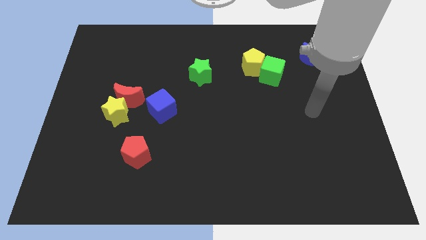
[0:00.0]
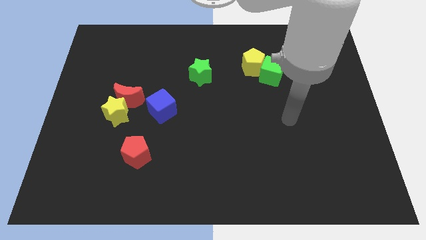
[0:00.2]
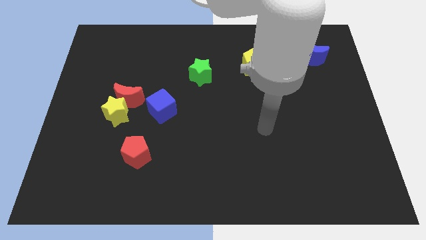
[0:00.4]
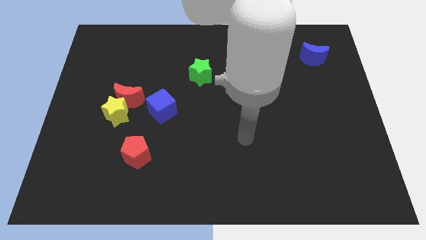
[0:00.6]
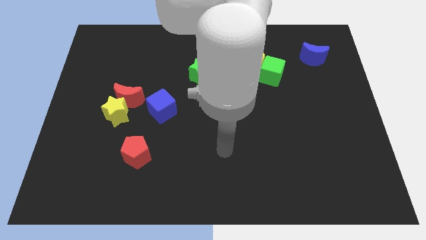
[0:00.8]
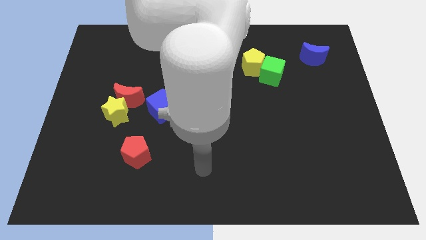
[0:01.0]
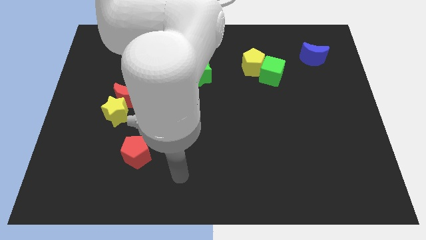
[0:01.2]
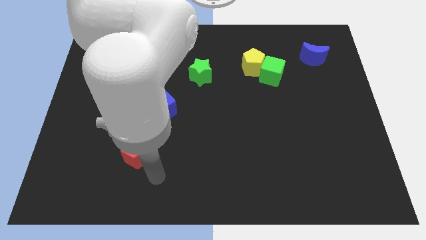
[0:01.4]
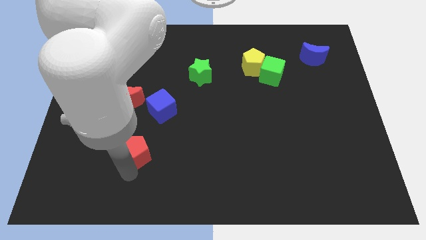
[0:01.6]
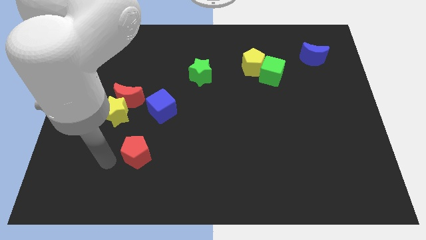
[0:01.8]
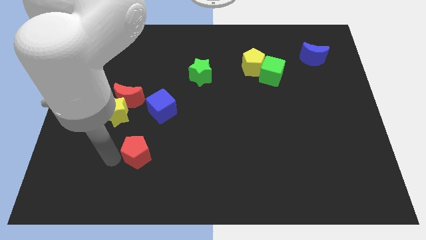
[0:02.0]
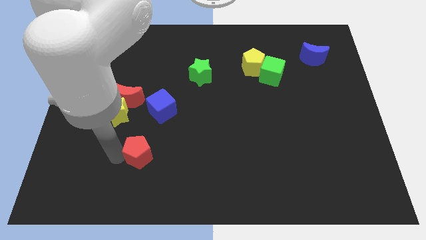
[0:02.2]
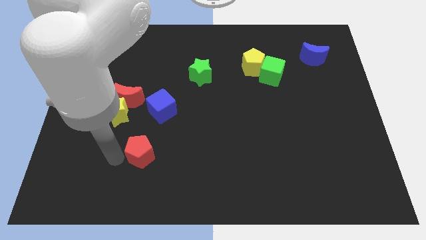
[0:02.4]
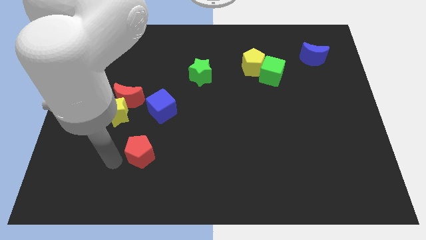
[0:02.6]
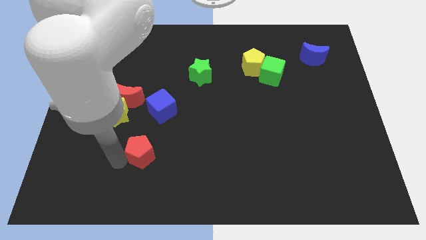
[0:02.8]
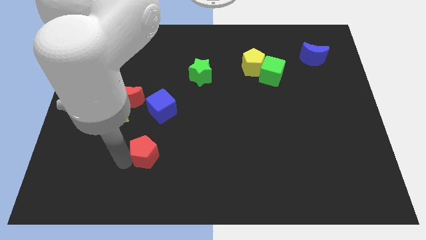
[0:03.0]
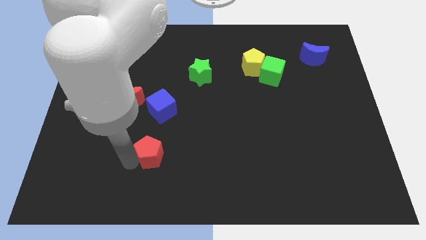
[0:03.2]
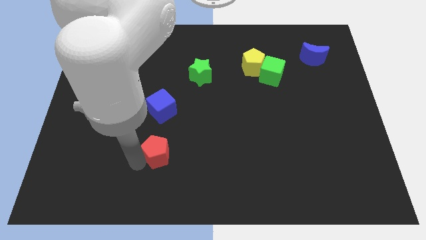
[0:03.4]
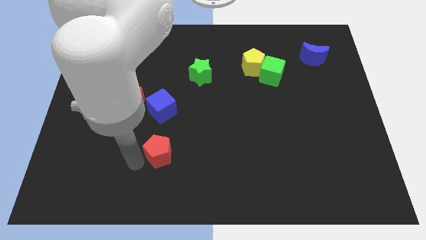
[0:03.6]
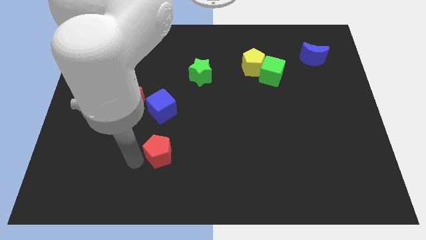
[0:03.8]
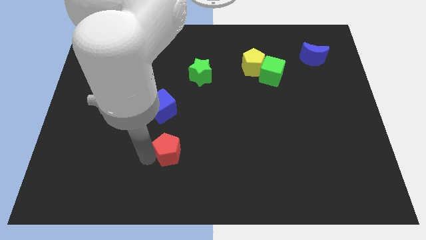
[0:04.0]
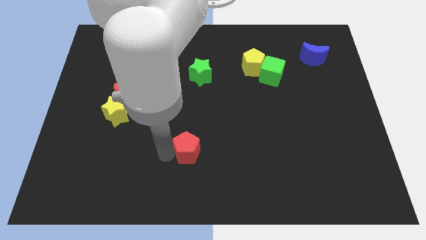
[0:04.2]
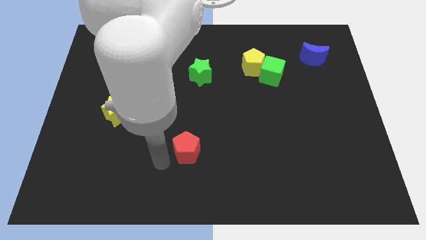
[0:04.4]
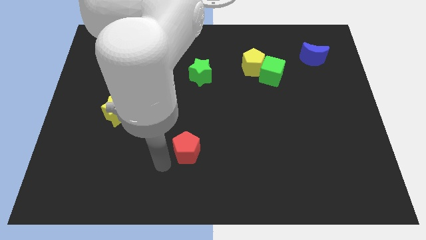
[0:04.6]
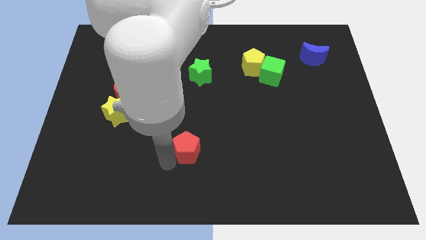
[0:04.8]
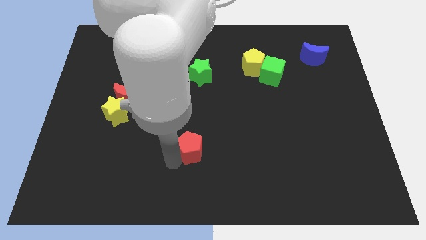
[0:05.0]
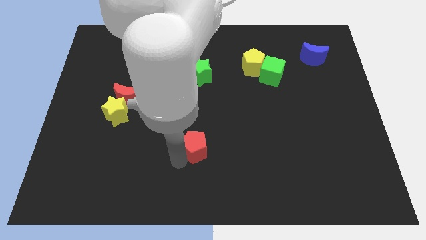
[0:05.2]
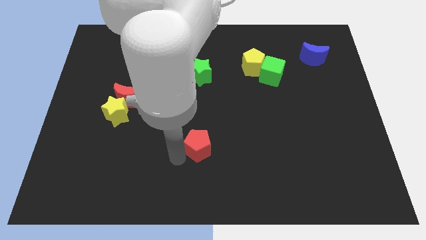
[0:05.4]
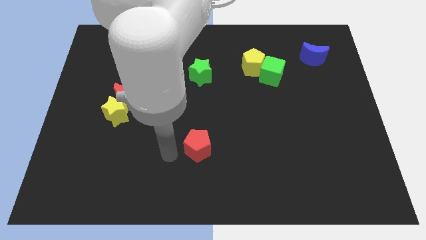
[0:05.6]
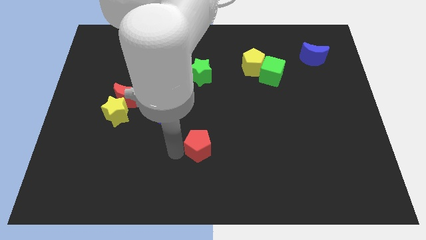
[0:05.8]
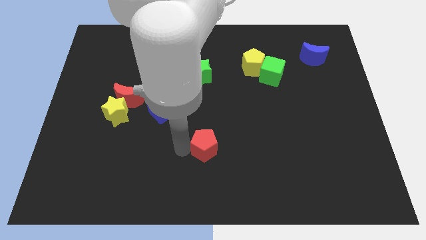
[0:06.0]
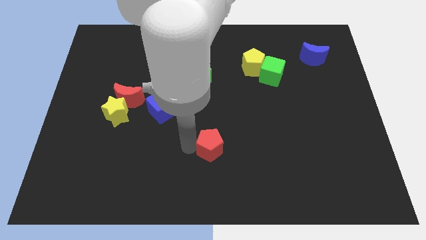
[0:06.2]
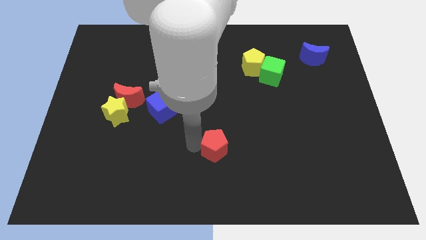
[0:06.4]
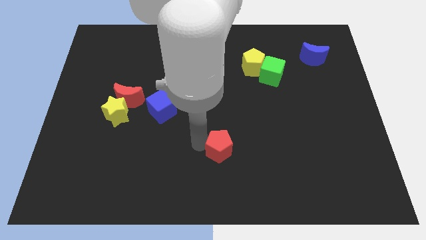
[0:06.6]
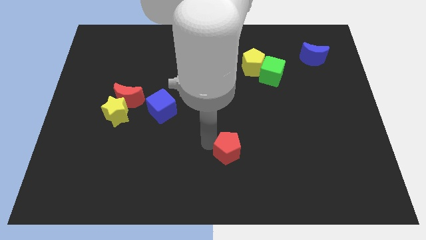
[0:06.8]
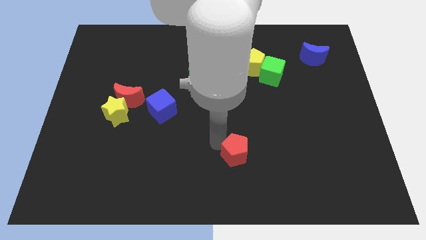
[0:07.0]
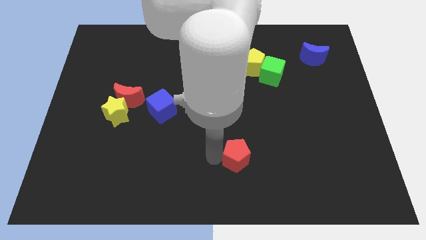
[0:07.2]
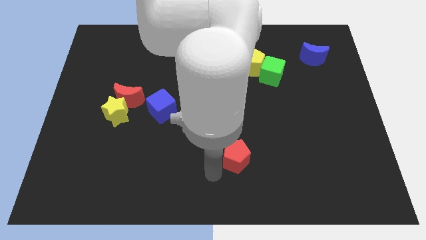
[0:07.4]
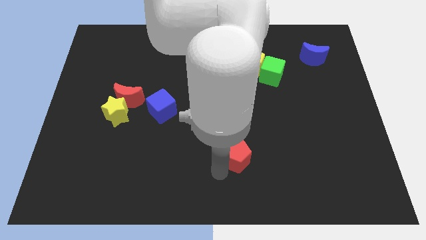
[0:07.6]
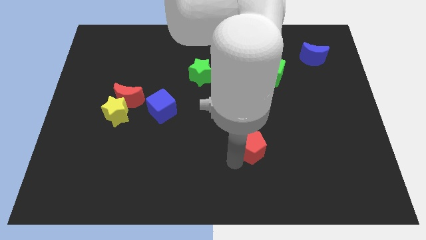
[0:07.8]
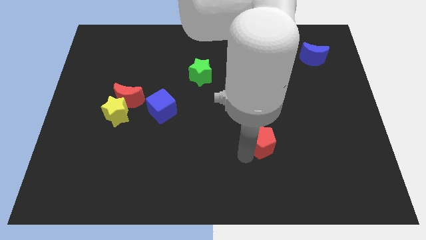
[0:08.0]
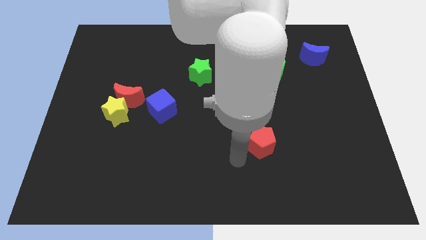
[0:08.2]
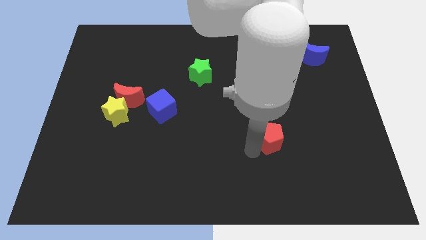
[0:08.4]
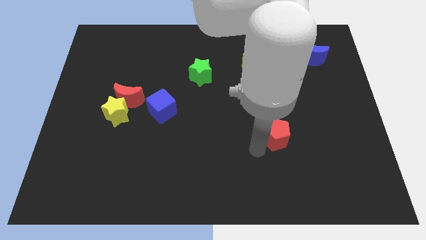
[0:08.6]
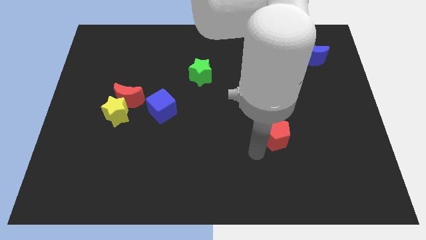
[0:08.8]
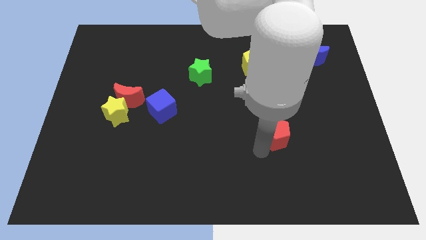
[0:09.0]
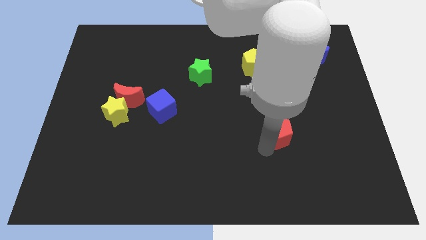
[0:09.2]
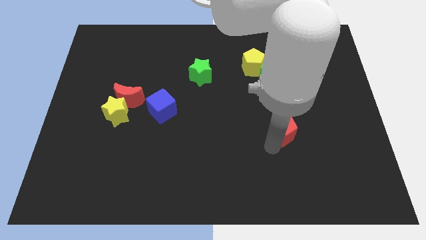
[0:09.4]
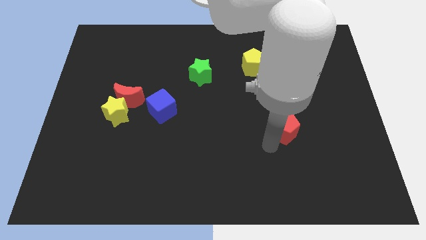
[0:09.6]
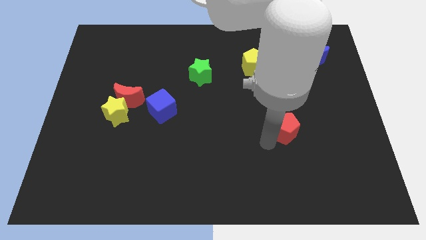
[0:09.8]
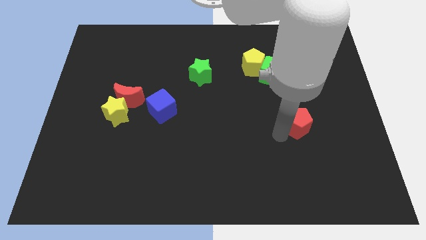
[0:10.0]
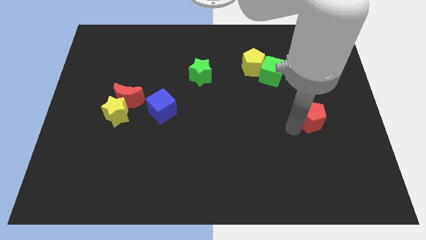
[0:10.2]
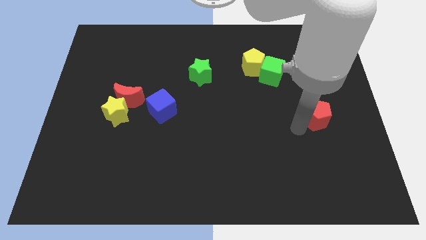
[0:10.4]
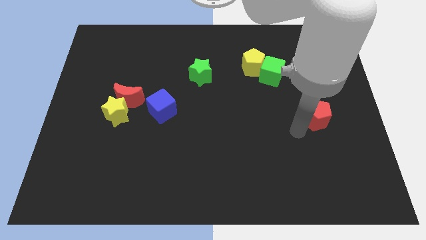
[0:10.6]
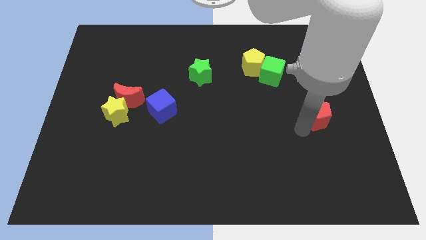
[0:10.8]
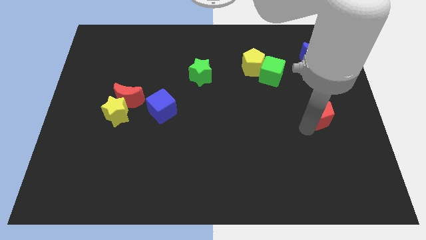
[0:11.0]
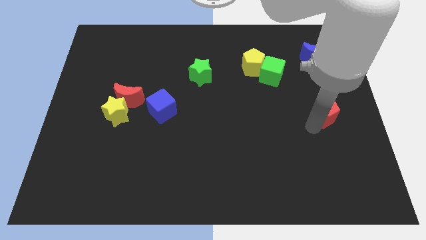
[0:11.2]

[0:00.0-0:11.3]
move the red pentagon to the center right

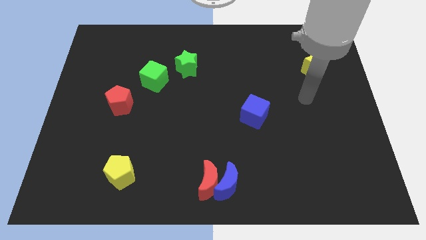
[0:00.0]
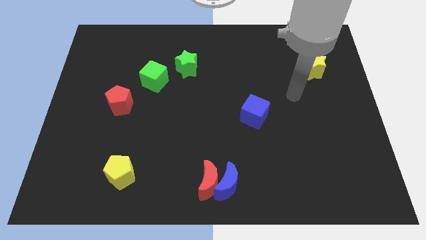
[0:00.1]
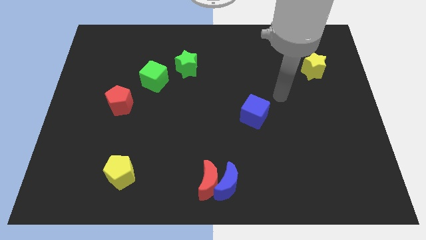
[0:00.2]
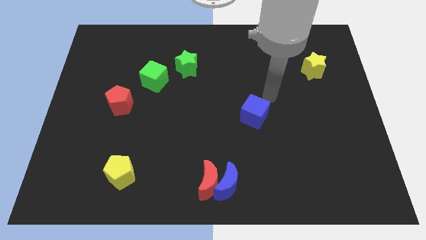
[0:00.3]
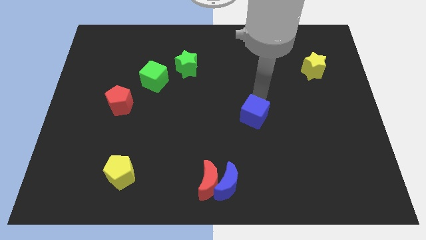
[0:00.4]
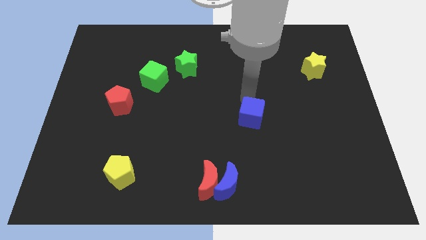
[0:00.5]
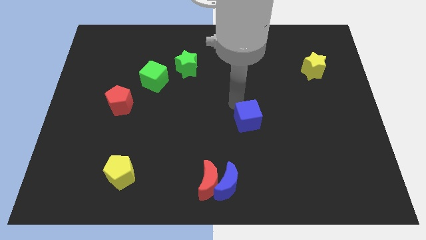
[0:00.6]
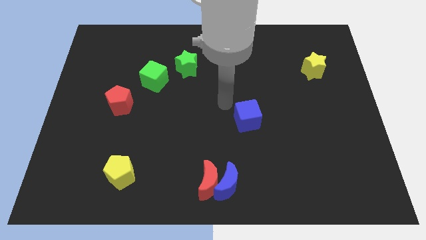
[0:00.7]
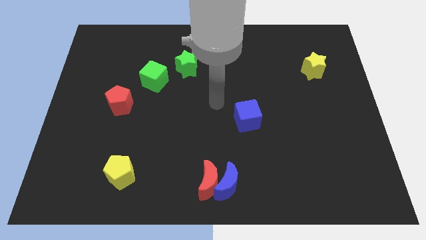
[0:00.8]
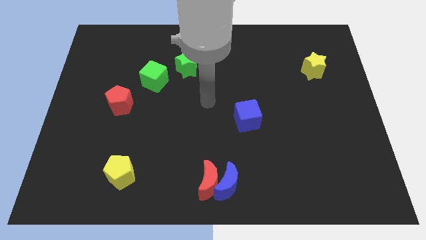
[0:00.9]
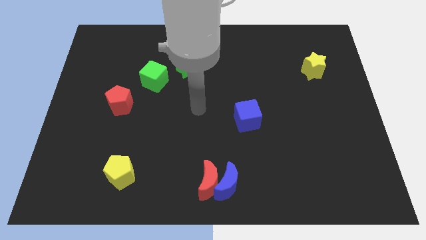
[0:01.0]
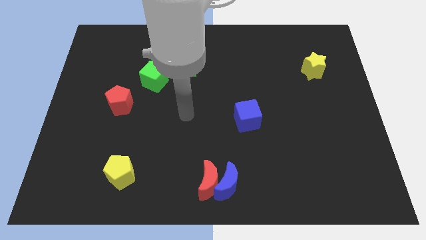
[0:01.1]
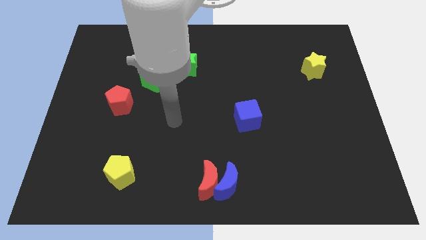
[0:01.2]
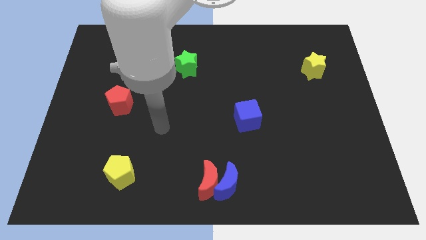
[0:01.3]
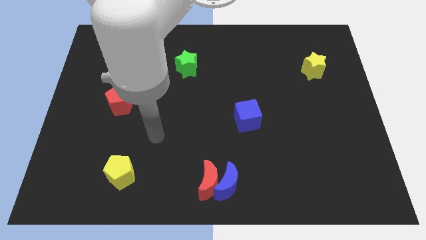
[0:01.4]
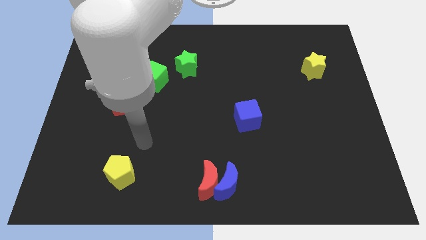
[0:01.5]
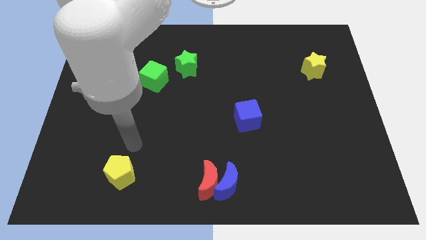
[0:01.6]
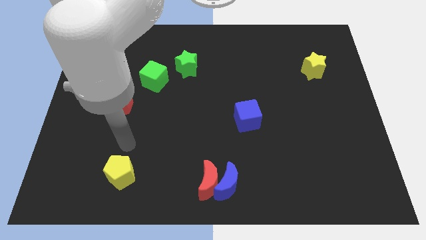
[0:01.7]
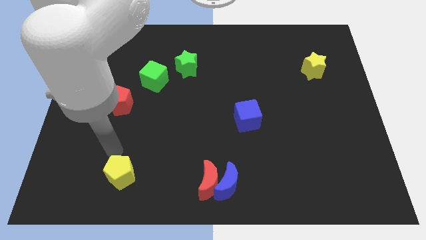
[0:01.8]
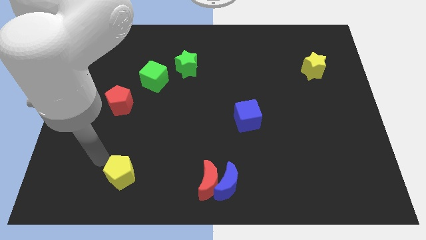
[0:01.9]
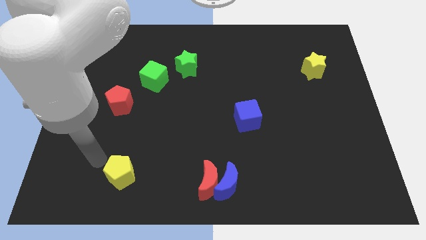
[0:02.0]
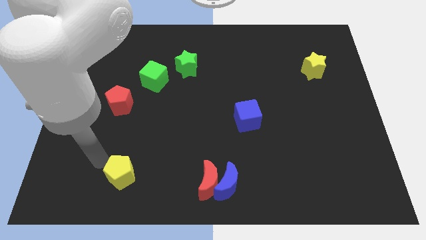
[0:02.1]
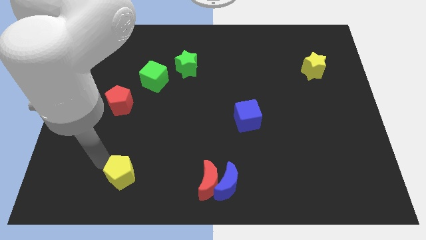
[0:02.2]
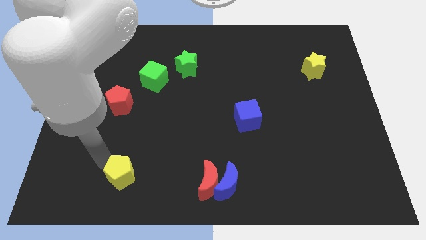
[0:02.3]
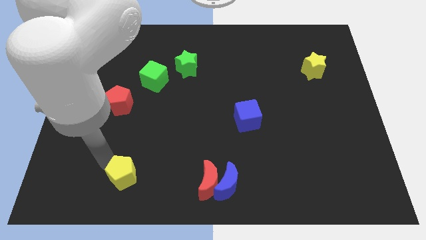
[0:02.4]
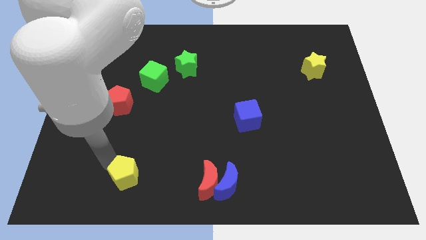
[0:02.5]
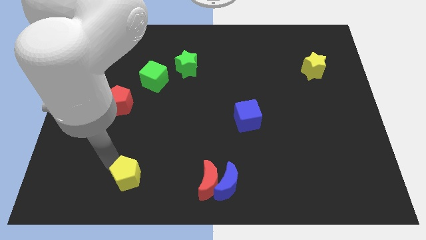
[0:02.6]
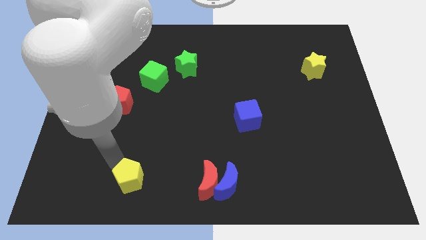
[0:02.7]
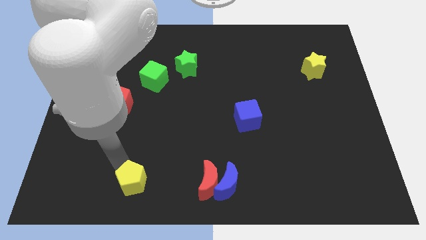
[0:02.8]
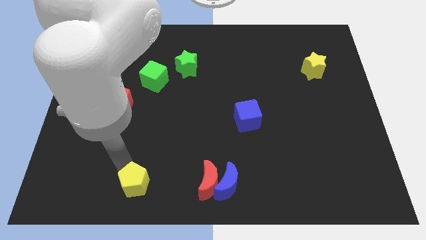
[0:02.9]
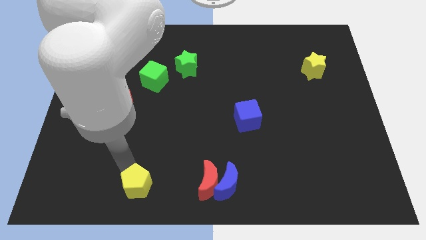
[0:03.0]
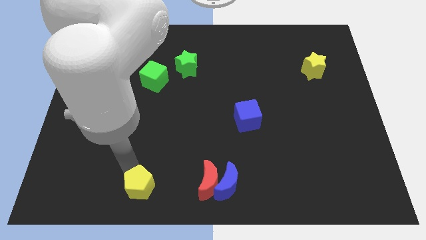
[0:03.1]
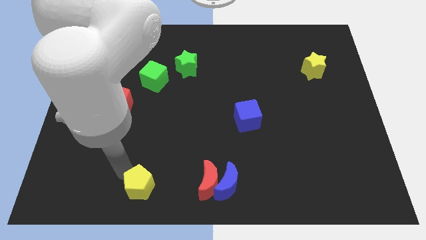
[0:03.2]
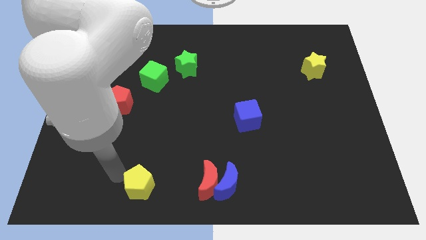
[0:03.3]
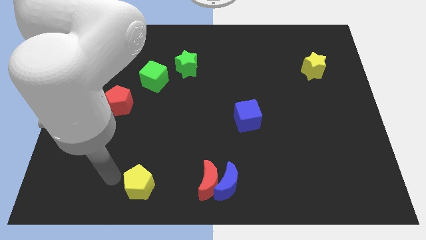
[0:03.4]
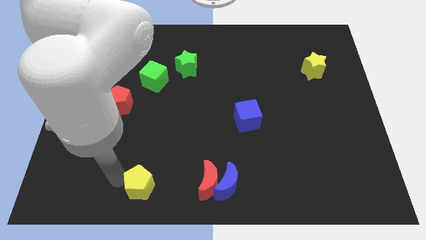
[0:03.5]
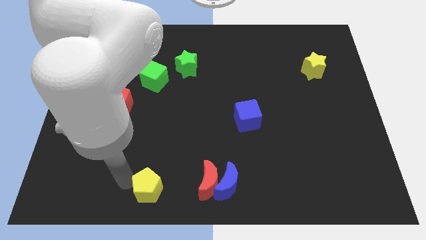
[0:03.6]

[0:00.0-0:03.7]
move the yellow pentagon to the bottom
